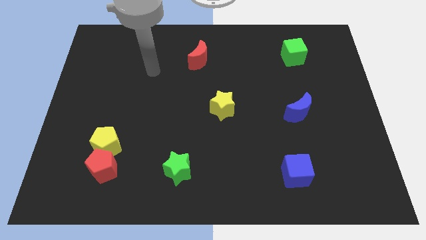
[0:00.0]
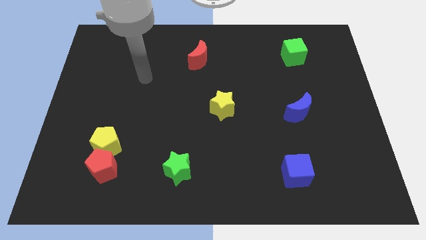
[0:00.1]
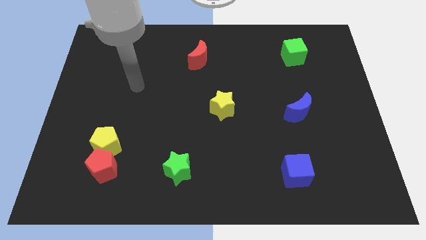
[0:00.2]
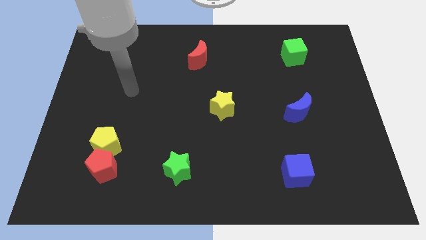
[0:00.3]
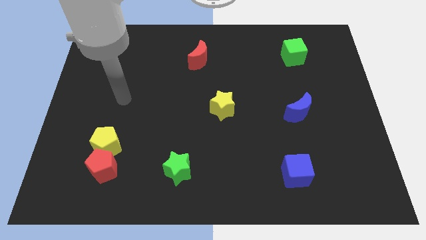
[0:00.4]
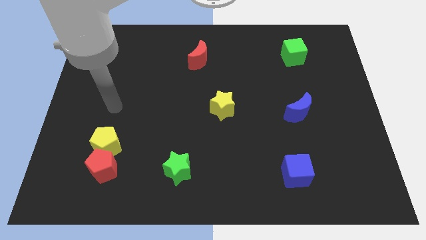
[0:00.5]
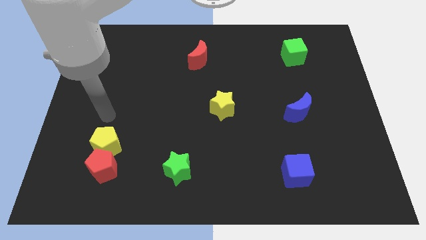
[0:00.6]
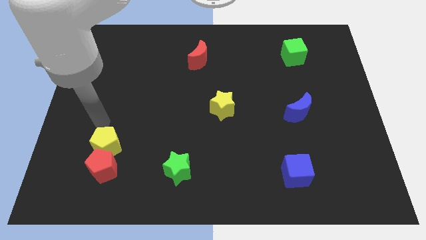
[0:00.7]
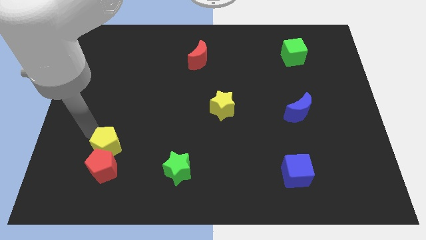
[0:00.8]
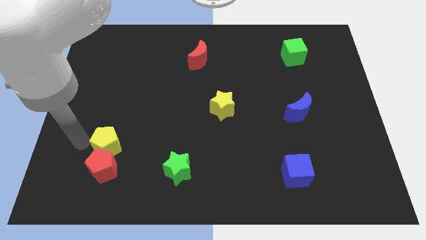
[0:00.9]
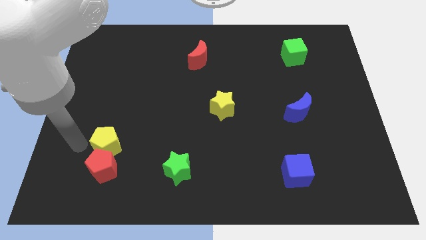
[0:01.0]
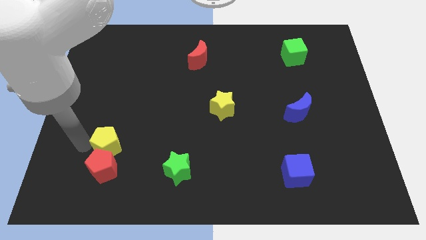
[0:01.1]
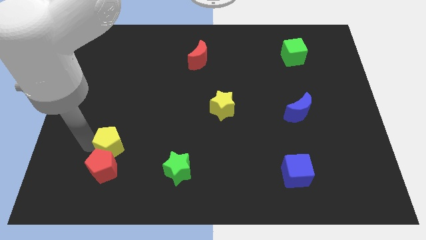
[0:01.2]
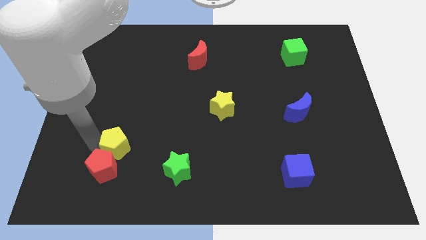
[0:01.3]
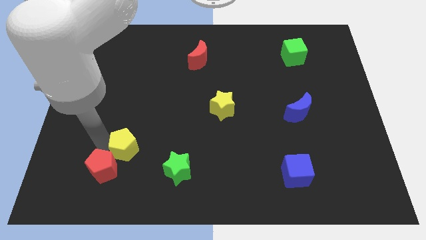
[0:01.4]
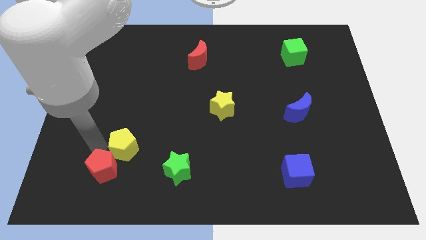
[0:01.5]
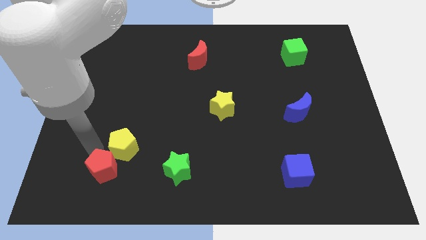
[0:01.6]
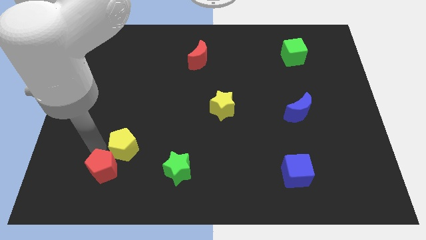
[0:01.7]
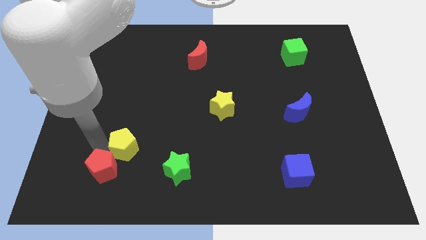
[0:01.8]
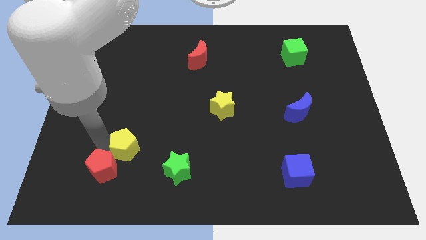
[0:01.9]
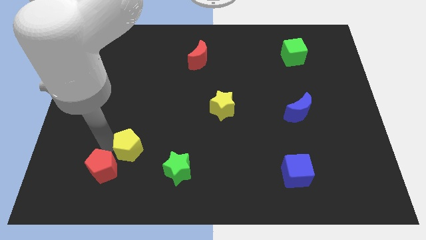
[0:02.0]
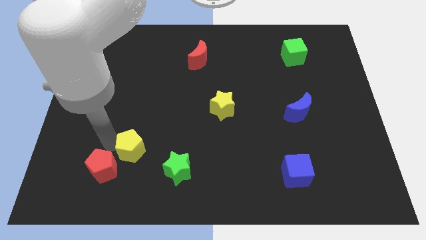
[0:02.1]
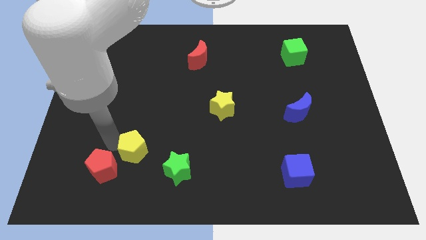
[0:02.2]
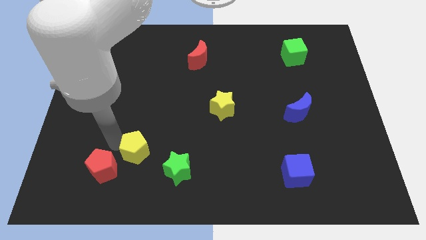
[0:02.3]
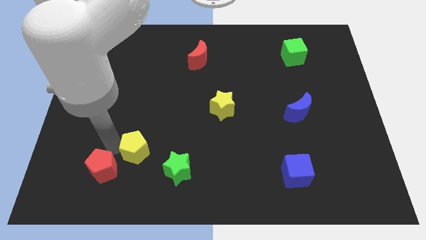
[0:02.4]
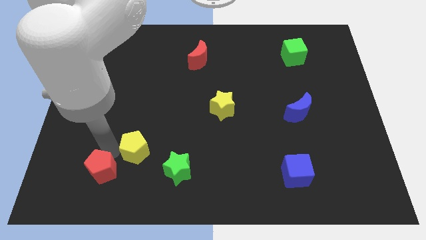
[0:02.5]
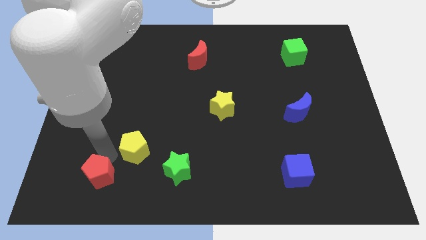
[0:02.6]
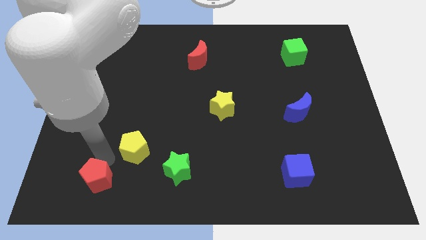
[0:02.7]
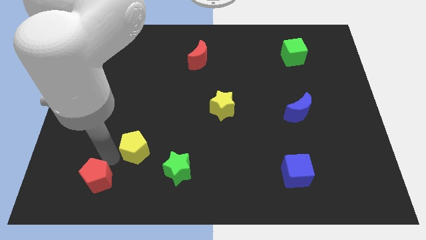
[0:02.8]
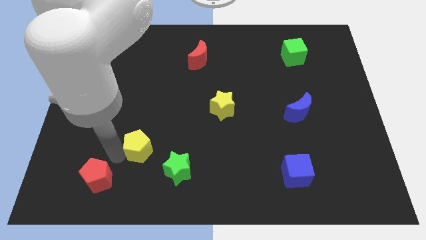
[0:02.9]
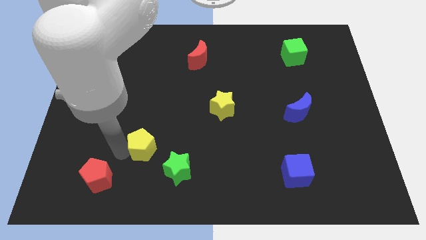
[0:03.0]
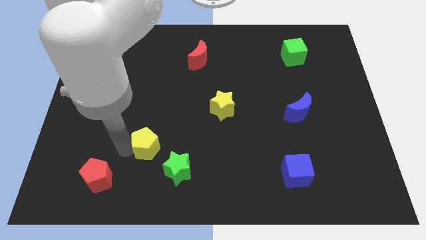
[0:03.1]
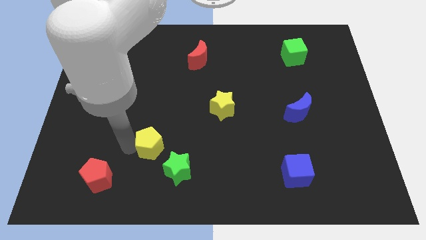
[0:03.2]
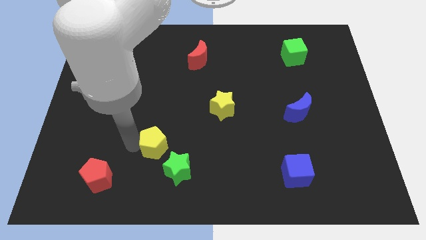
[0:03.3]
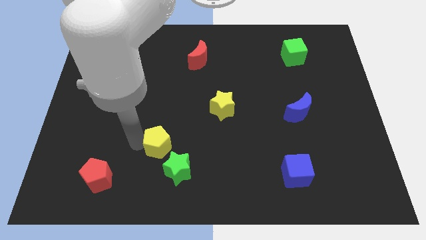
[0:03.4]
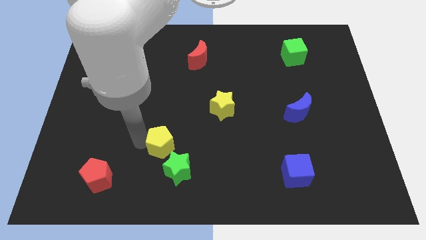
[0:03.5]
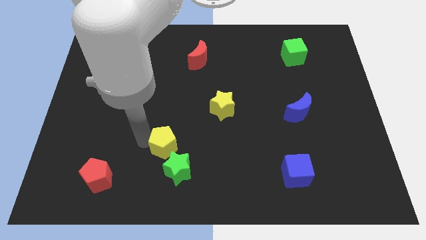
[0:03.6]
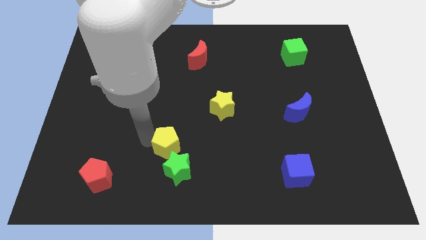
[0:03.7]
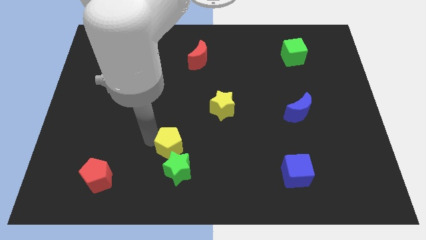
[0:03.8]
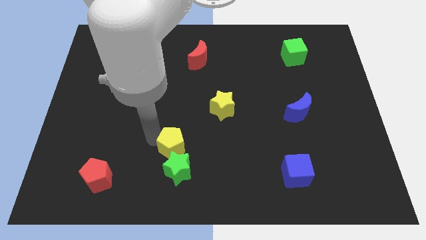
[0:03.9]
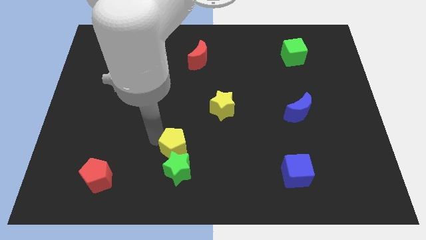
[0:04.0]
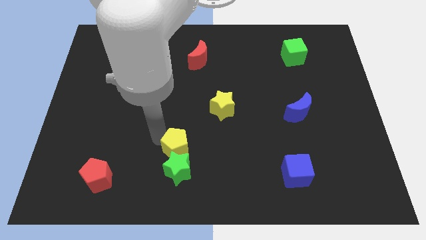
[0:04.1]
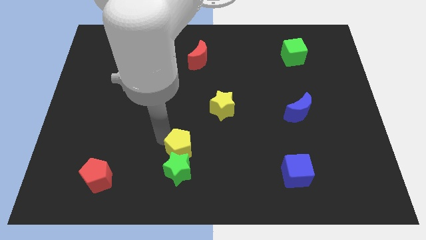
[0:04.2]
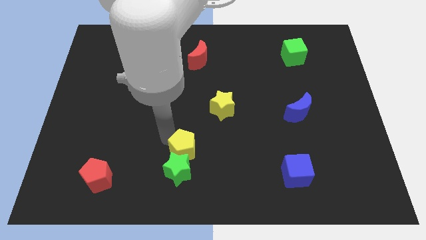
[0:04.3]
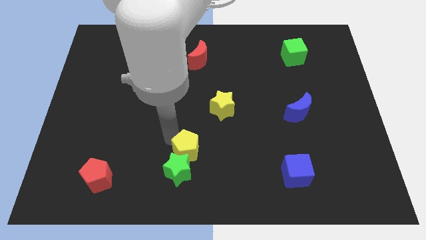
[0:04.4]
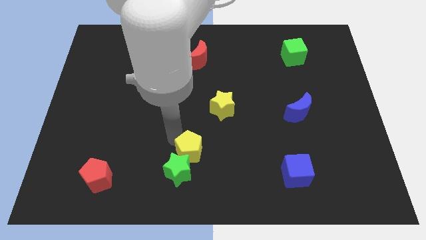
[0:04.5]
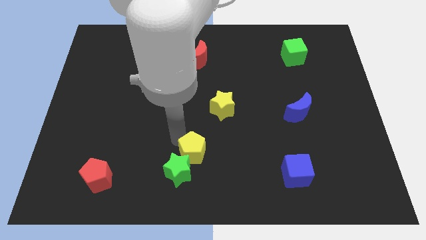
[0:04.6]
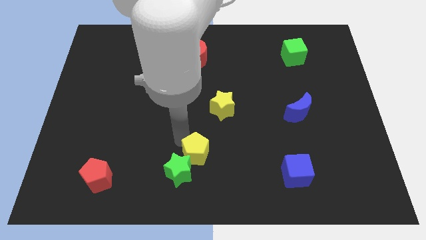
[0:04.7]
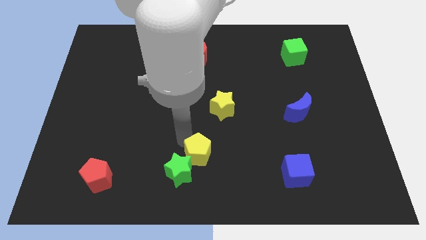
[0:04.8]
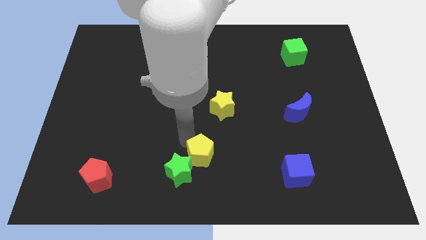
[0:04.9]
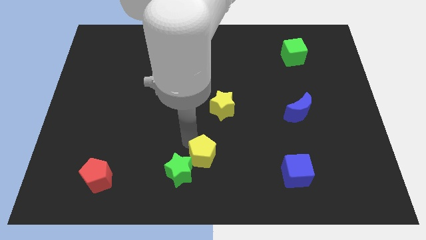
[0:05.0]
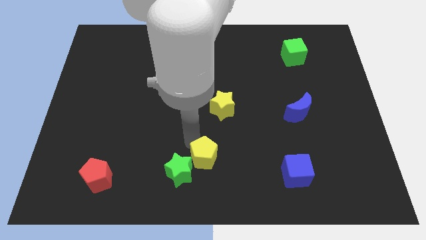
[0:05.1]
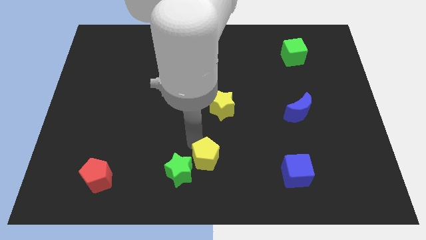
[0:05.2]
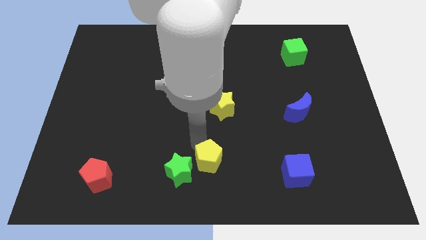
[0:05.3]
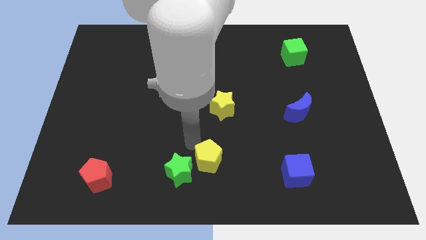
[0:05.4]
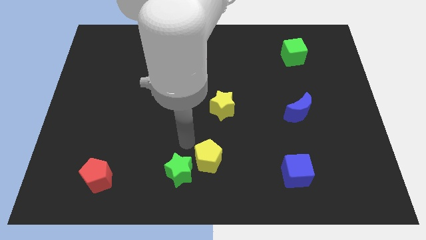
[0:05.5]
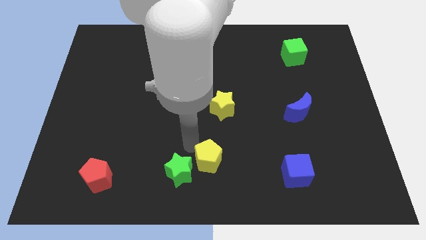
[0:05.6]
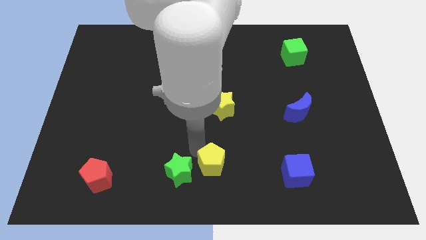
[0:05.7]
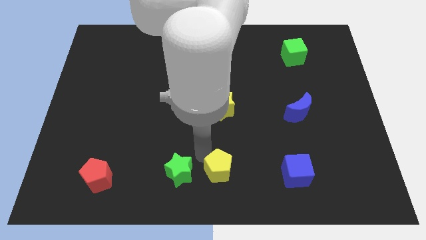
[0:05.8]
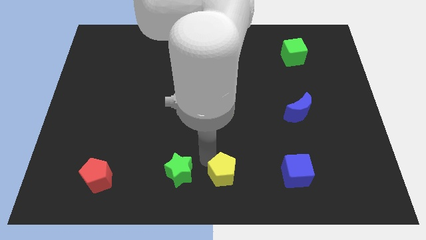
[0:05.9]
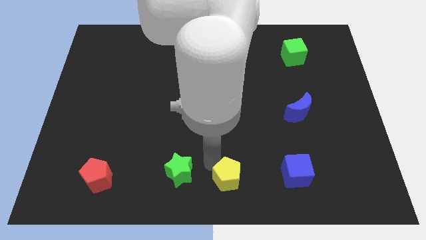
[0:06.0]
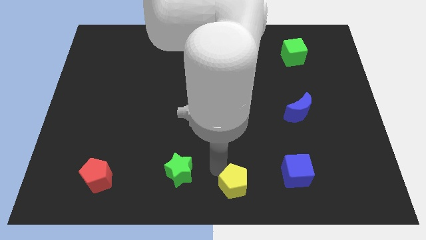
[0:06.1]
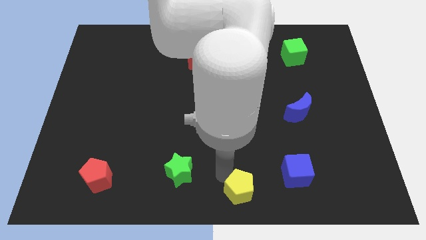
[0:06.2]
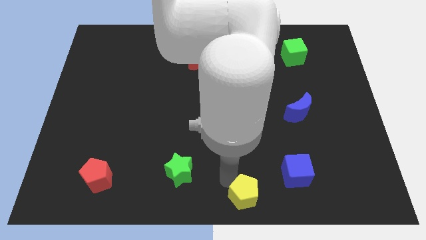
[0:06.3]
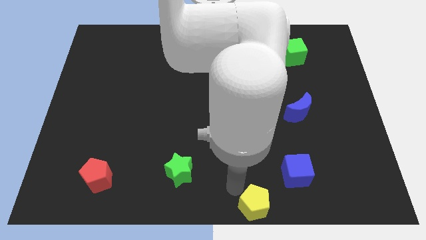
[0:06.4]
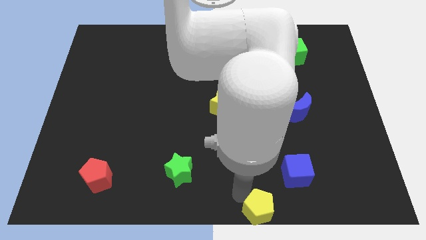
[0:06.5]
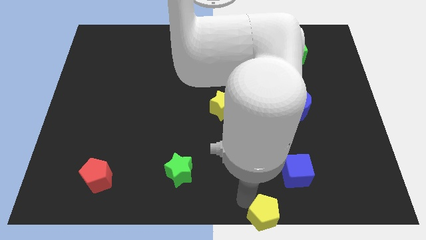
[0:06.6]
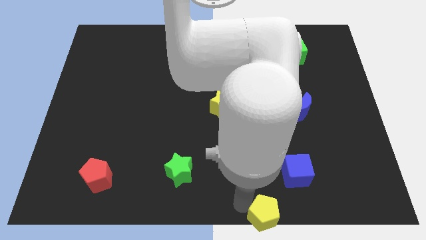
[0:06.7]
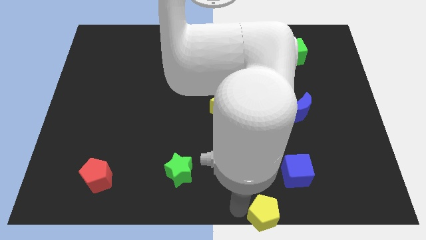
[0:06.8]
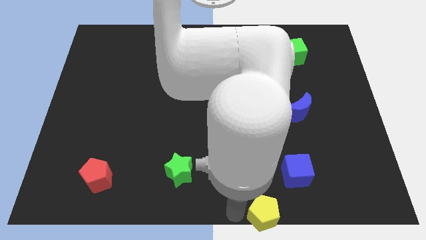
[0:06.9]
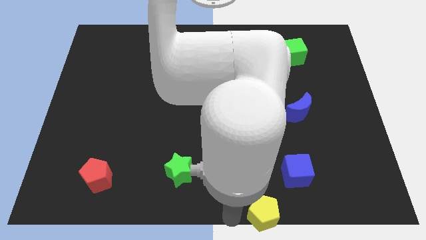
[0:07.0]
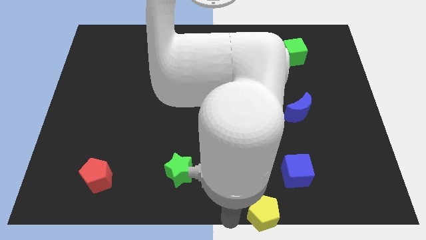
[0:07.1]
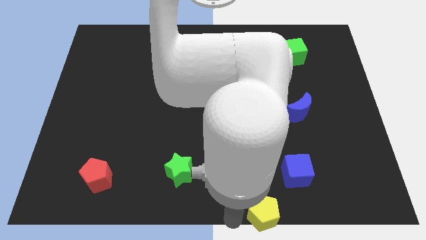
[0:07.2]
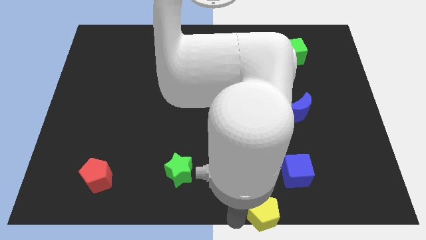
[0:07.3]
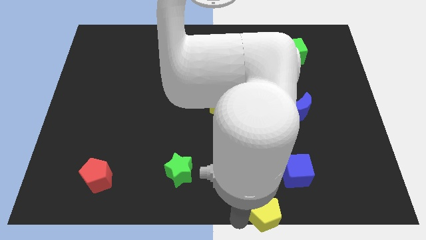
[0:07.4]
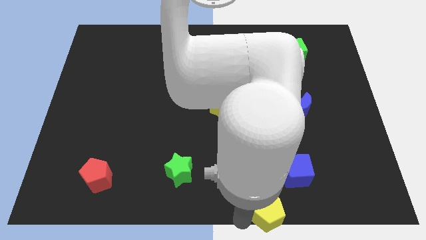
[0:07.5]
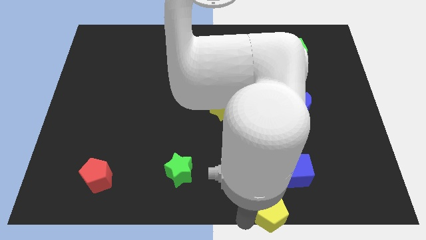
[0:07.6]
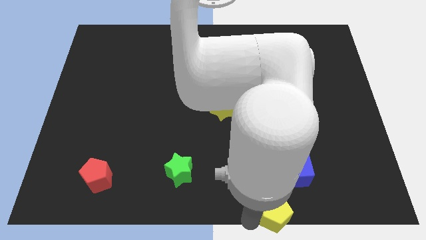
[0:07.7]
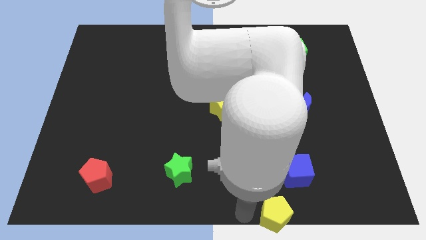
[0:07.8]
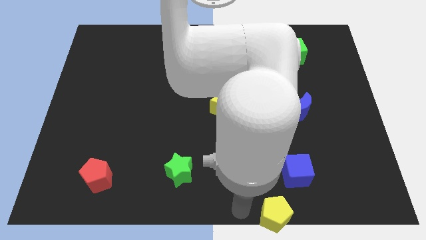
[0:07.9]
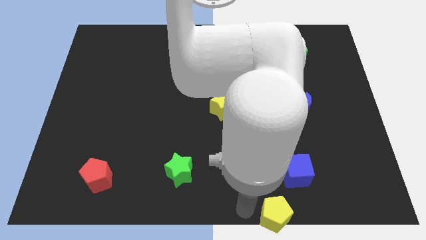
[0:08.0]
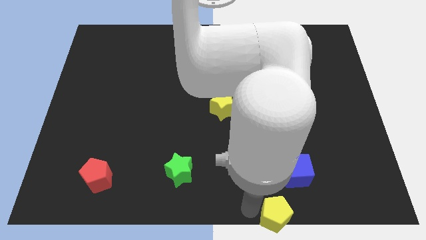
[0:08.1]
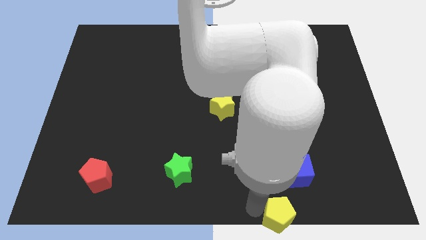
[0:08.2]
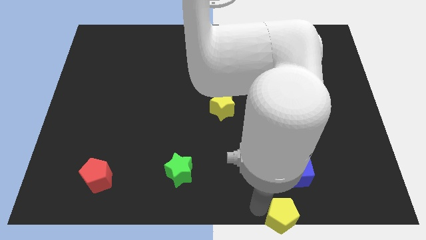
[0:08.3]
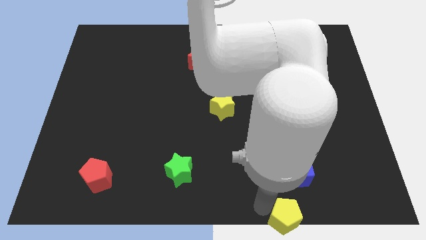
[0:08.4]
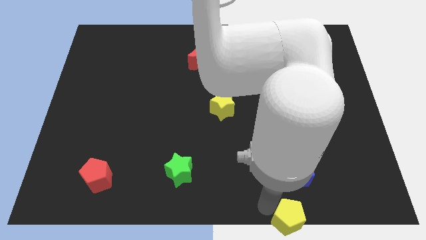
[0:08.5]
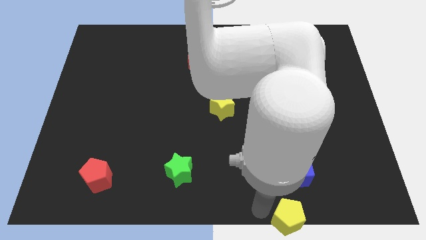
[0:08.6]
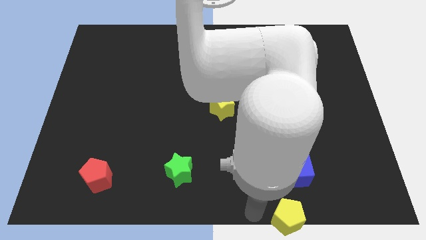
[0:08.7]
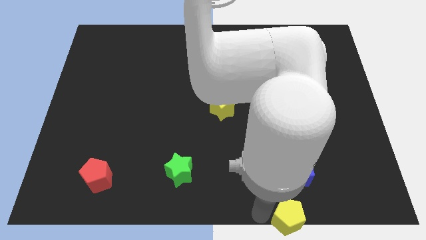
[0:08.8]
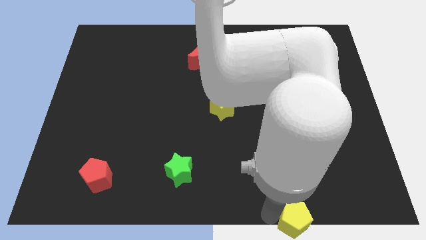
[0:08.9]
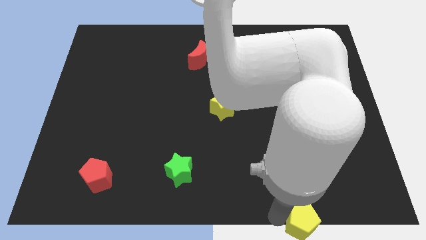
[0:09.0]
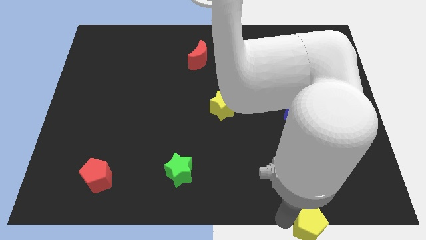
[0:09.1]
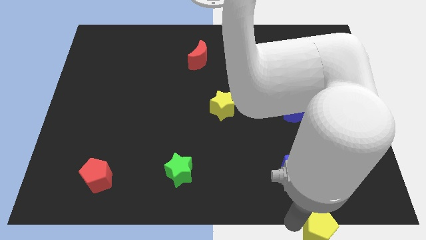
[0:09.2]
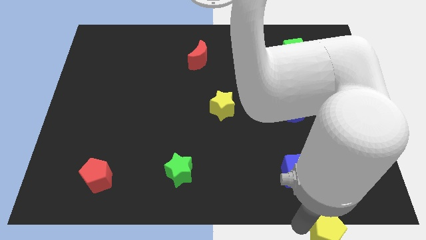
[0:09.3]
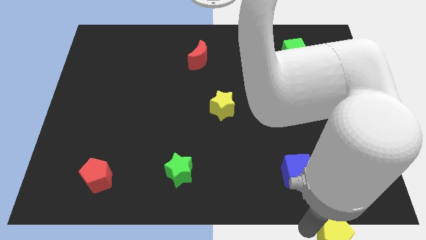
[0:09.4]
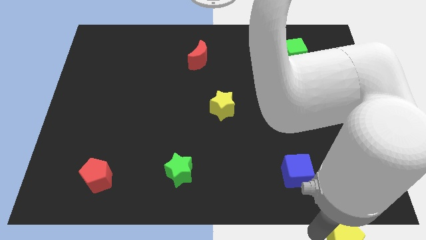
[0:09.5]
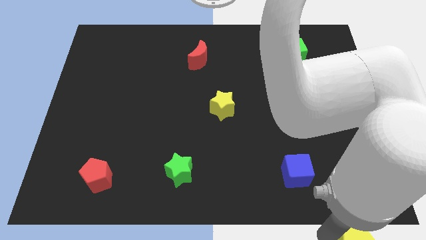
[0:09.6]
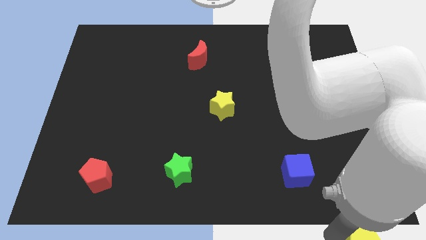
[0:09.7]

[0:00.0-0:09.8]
push the yellow pentagon to the bottom right of the board
